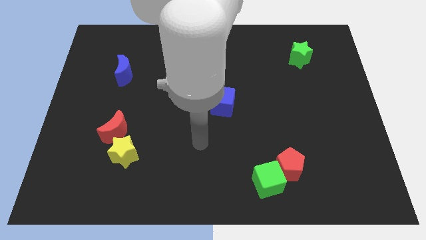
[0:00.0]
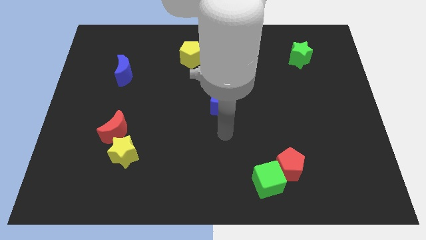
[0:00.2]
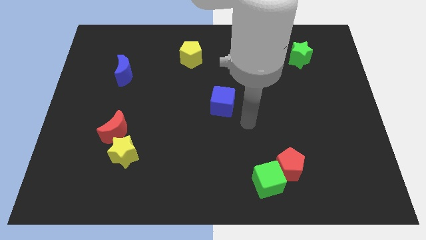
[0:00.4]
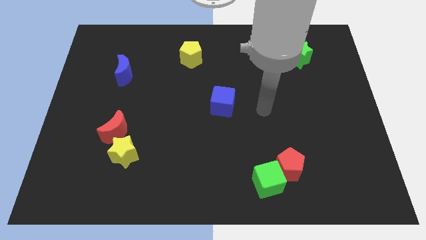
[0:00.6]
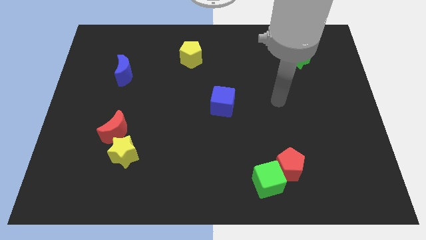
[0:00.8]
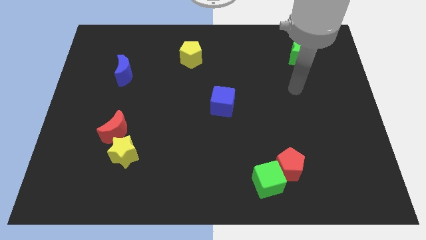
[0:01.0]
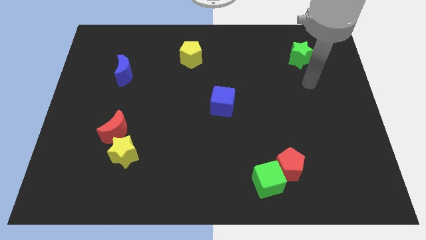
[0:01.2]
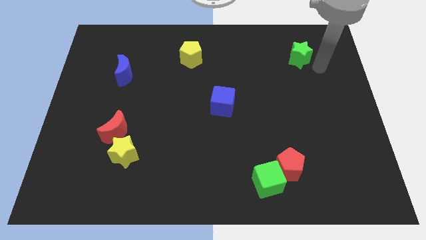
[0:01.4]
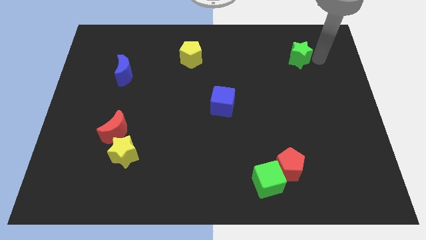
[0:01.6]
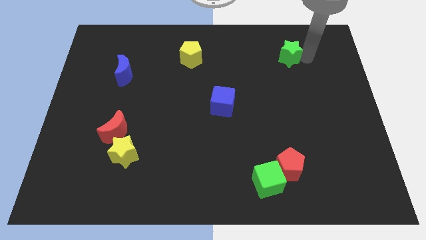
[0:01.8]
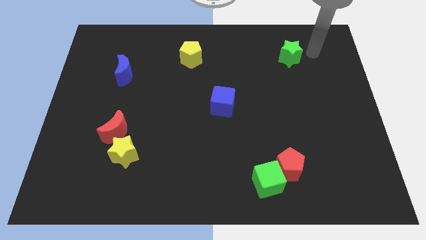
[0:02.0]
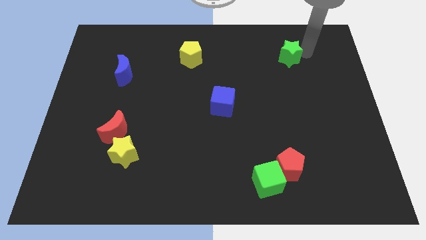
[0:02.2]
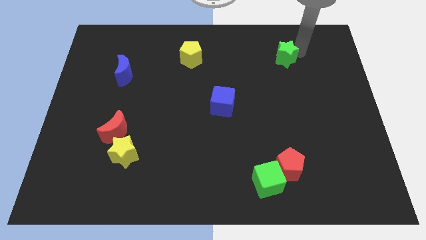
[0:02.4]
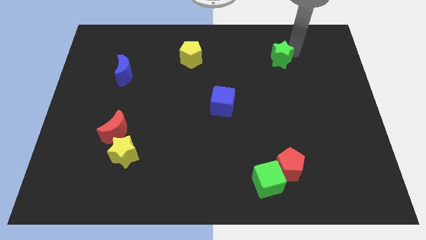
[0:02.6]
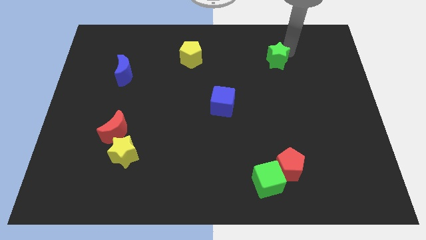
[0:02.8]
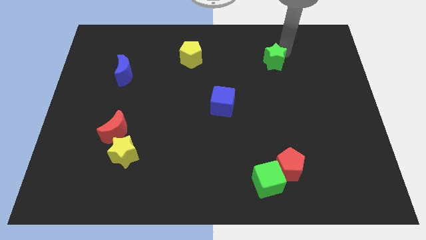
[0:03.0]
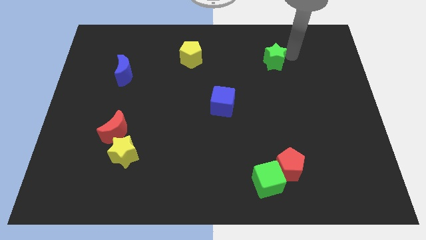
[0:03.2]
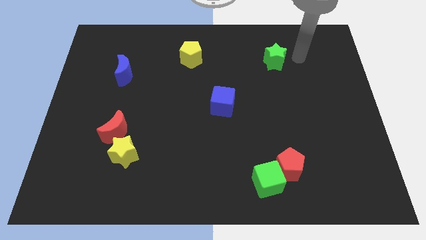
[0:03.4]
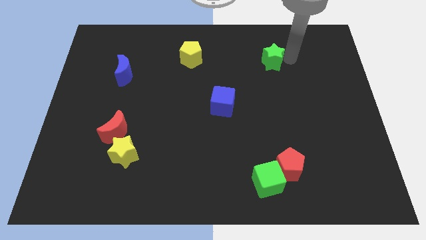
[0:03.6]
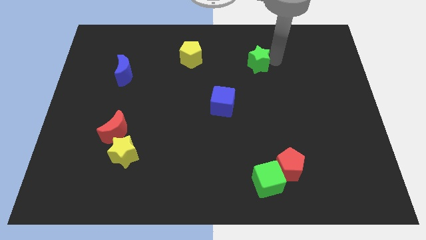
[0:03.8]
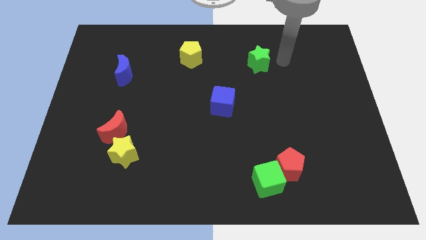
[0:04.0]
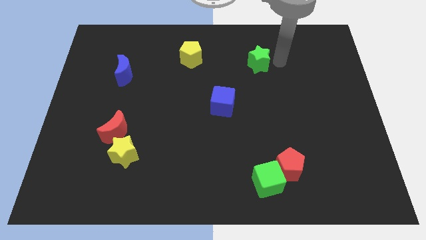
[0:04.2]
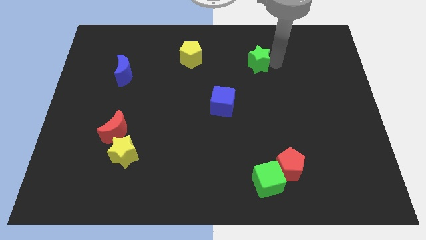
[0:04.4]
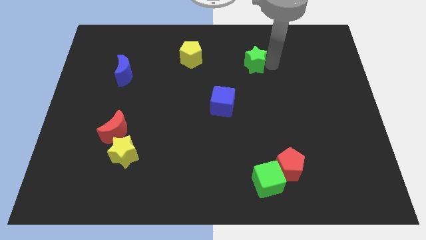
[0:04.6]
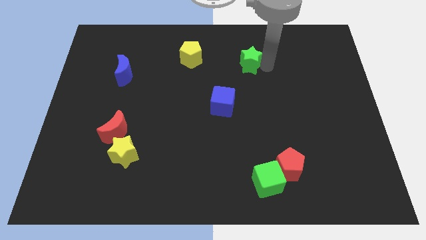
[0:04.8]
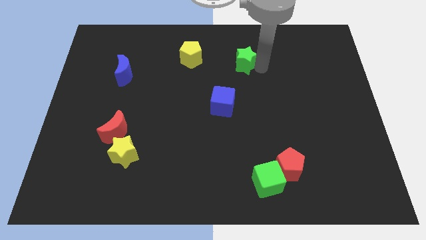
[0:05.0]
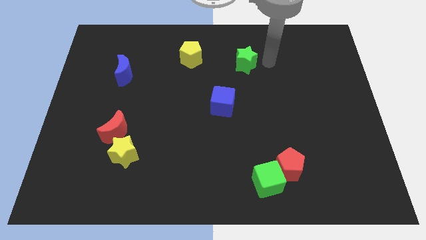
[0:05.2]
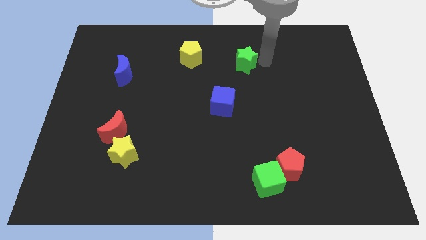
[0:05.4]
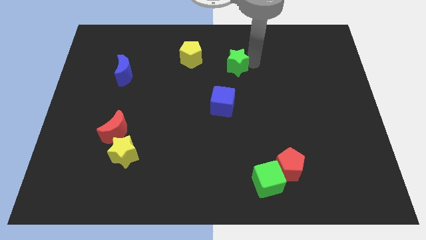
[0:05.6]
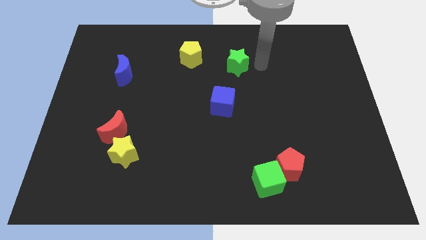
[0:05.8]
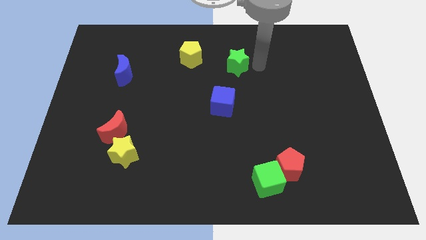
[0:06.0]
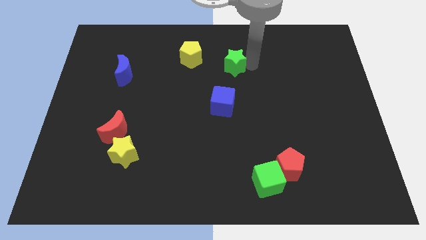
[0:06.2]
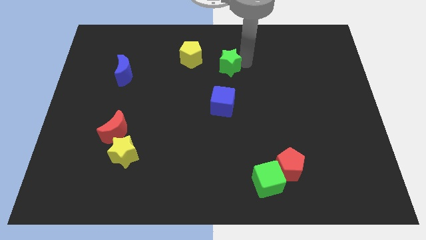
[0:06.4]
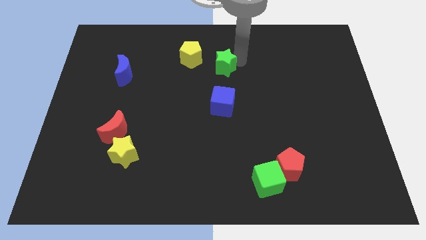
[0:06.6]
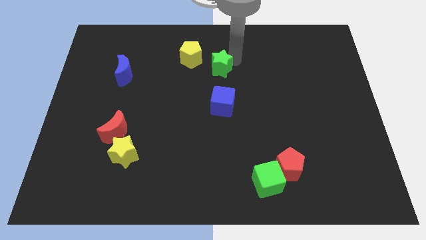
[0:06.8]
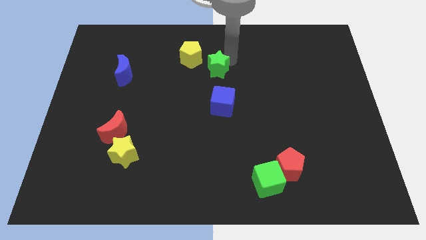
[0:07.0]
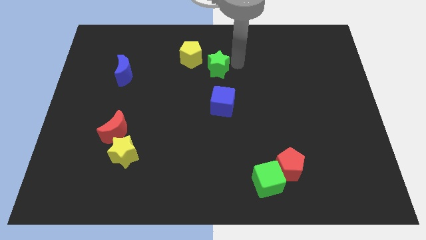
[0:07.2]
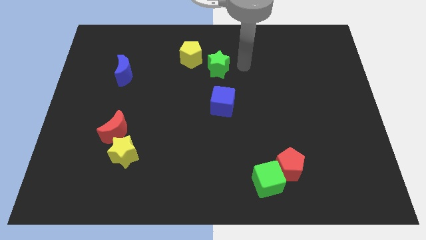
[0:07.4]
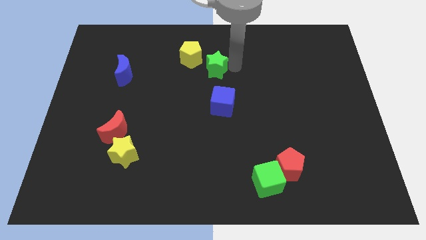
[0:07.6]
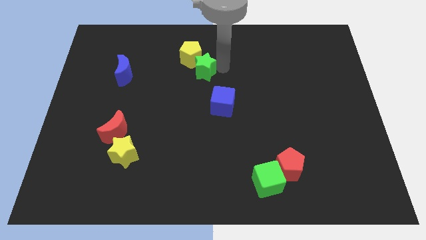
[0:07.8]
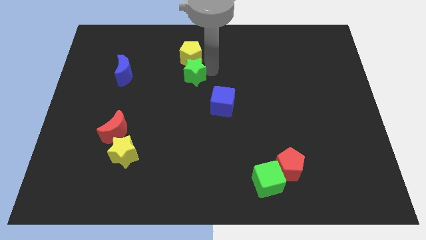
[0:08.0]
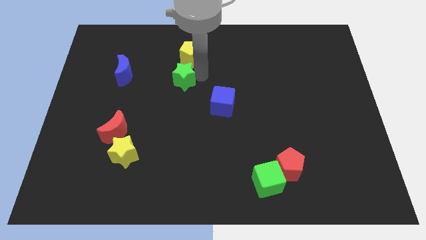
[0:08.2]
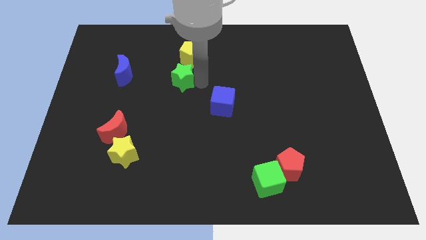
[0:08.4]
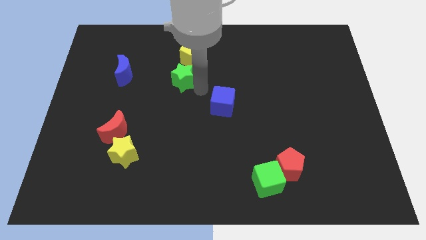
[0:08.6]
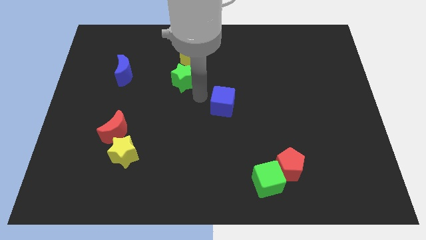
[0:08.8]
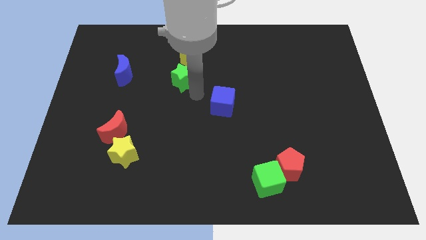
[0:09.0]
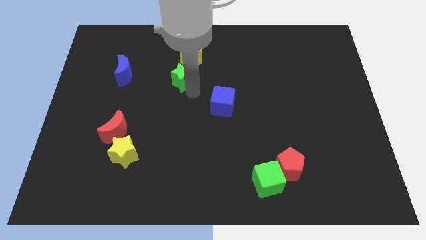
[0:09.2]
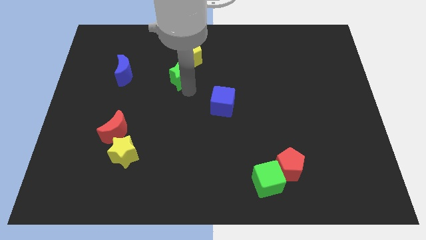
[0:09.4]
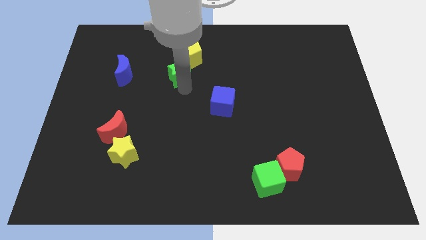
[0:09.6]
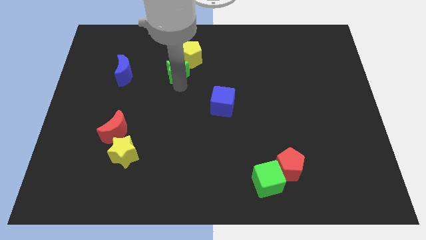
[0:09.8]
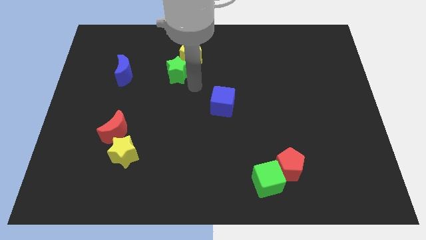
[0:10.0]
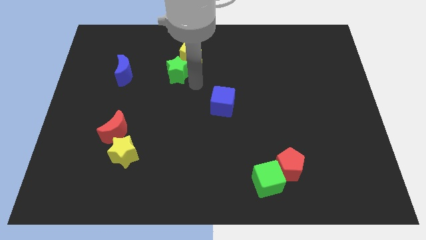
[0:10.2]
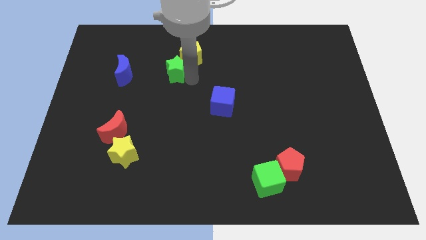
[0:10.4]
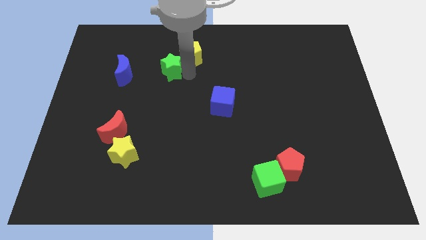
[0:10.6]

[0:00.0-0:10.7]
put the green star left of the yellow pentagon

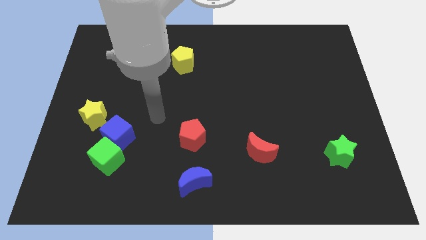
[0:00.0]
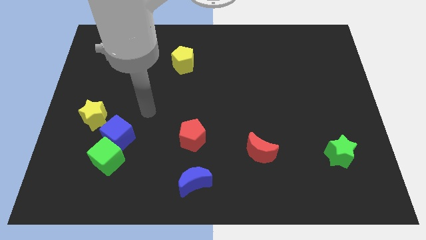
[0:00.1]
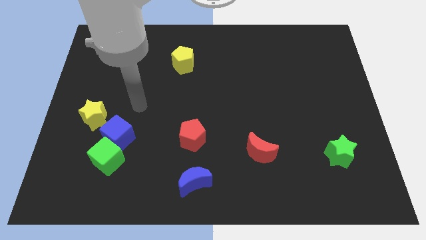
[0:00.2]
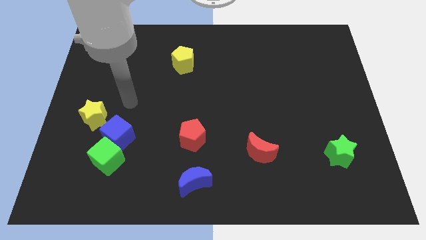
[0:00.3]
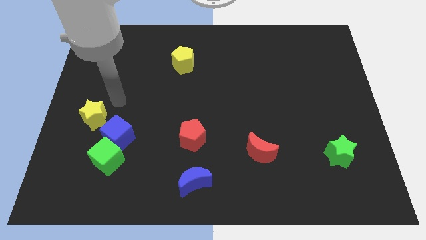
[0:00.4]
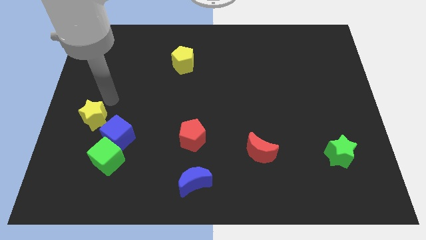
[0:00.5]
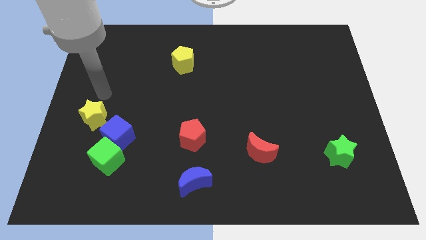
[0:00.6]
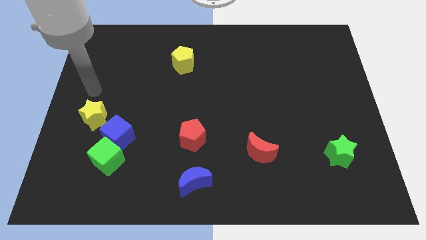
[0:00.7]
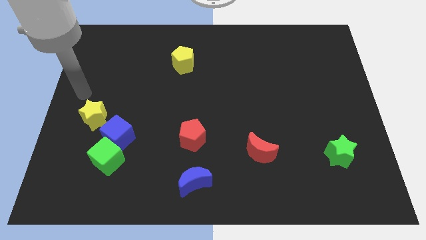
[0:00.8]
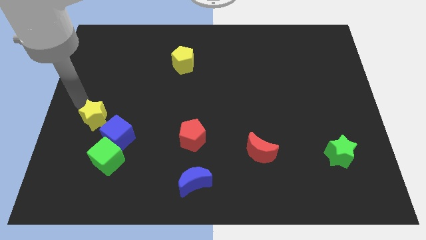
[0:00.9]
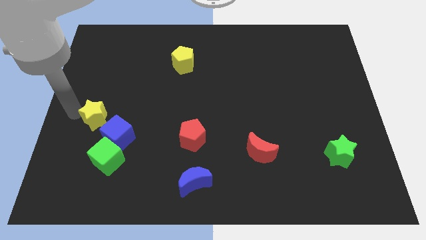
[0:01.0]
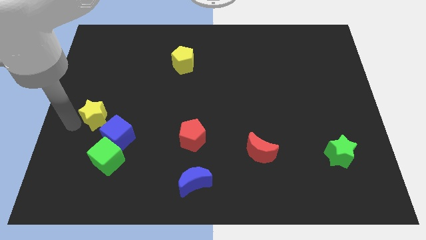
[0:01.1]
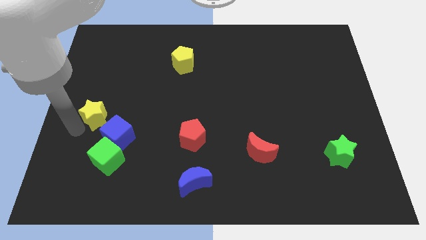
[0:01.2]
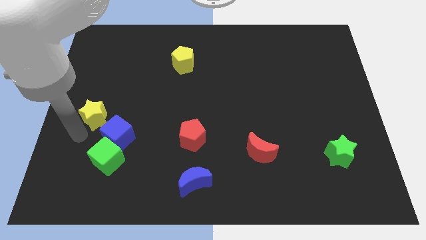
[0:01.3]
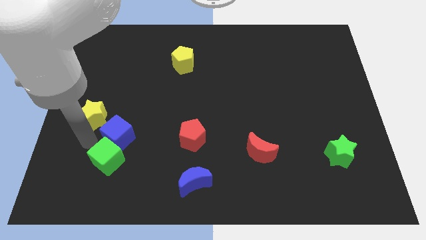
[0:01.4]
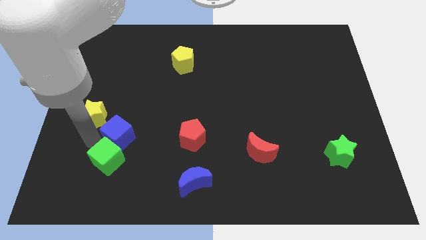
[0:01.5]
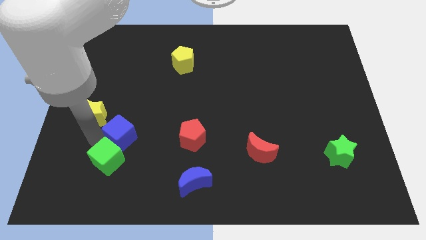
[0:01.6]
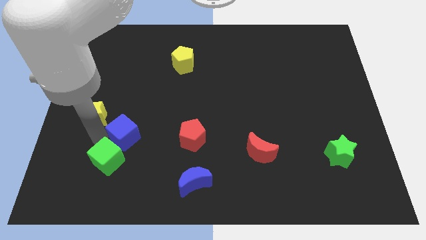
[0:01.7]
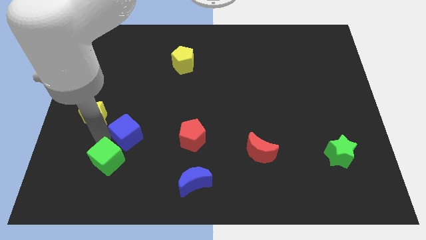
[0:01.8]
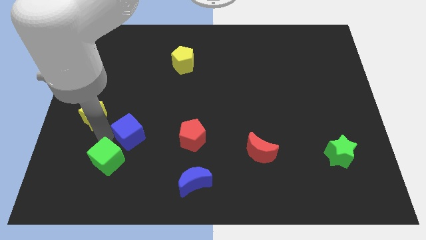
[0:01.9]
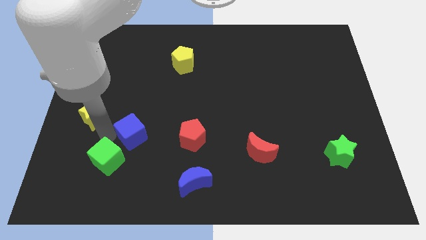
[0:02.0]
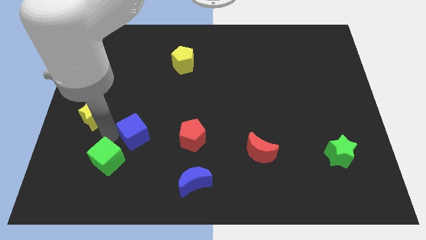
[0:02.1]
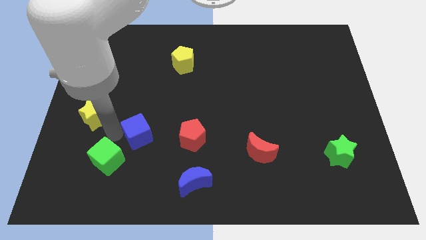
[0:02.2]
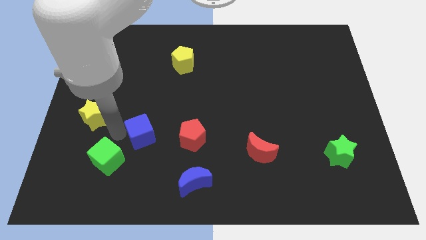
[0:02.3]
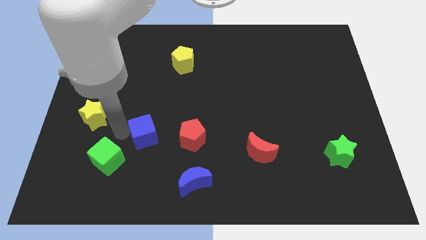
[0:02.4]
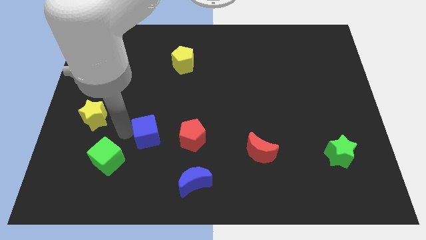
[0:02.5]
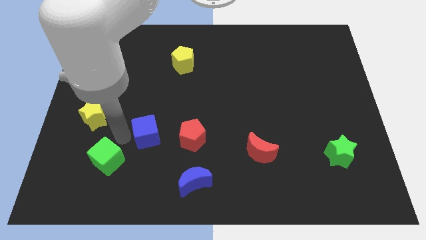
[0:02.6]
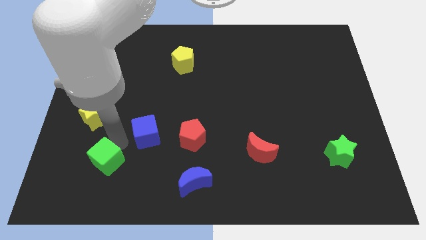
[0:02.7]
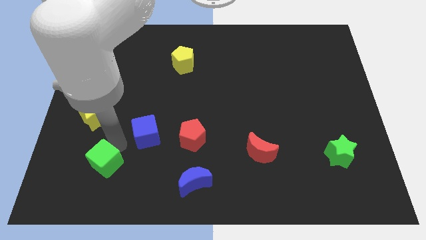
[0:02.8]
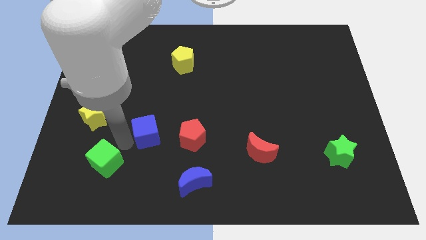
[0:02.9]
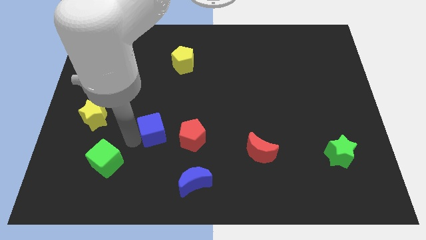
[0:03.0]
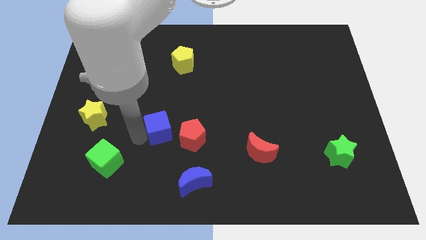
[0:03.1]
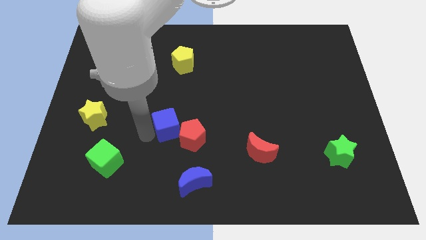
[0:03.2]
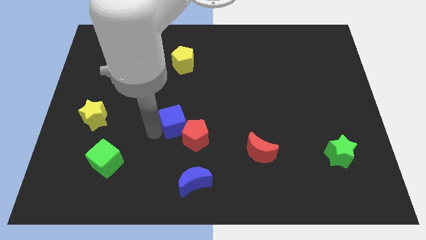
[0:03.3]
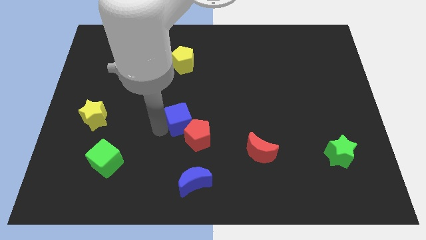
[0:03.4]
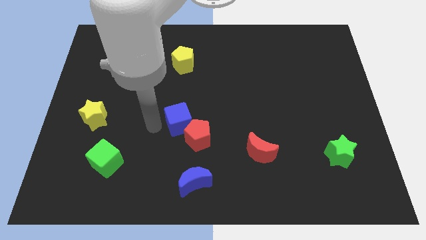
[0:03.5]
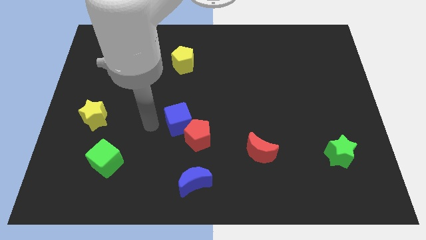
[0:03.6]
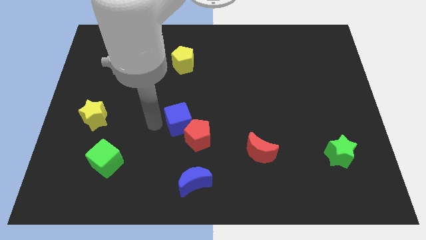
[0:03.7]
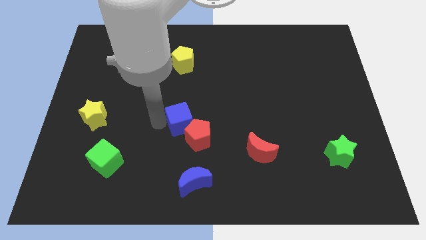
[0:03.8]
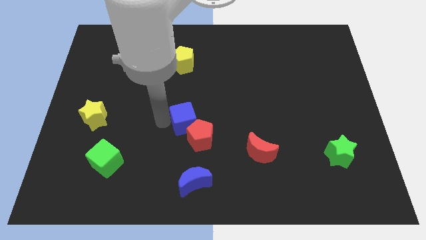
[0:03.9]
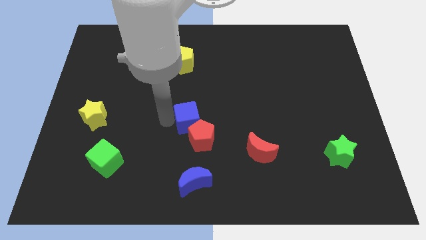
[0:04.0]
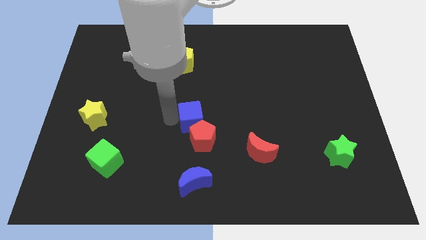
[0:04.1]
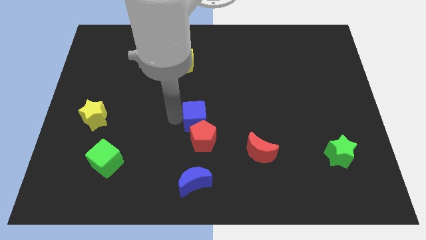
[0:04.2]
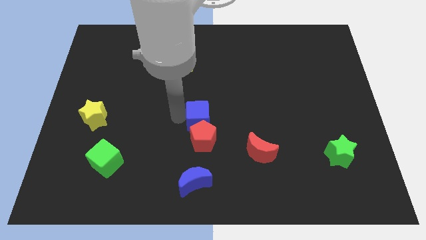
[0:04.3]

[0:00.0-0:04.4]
put the blue cube to the top right of the red pentagon
